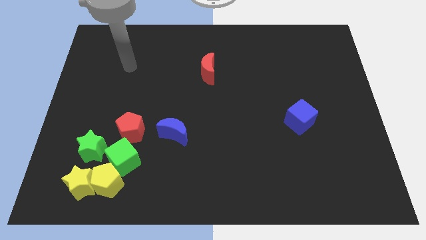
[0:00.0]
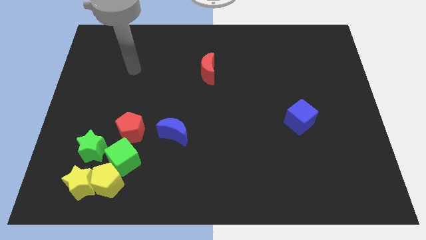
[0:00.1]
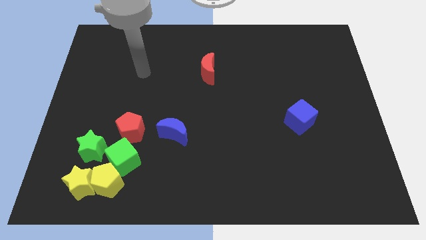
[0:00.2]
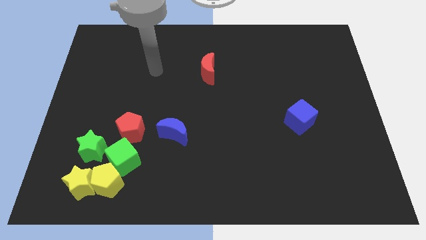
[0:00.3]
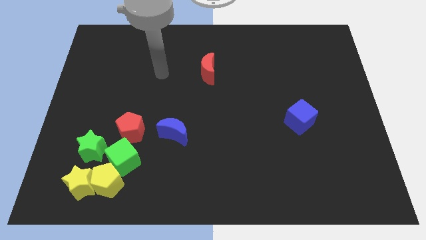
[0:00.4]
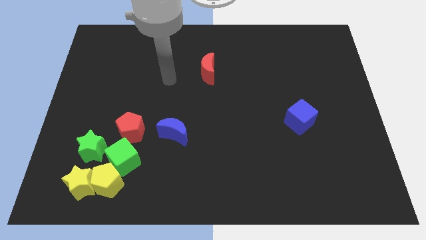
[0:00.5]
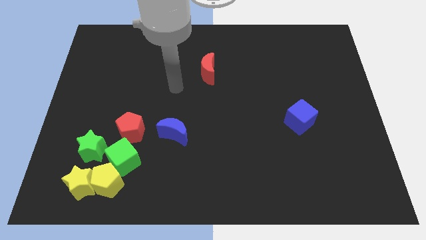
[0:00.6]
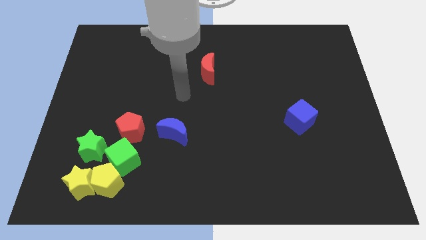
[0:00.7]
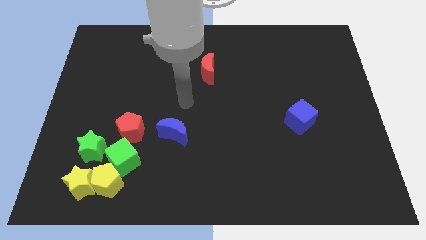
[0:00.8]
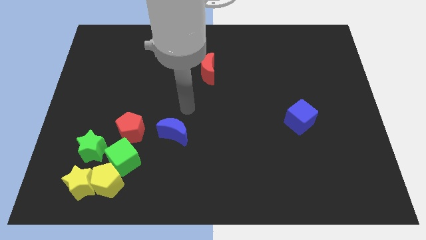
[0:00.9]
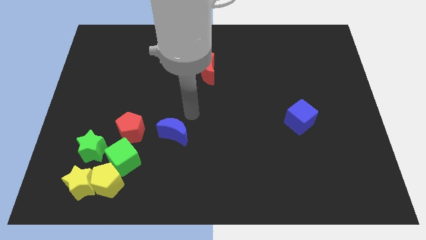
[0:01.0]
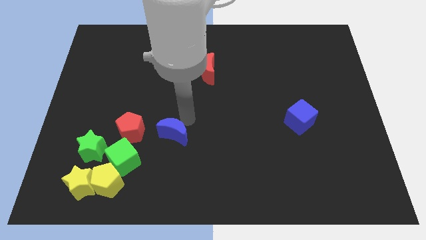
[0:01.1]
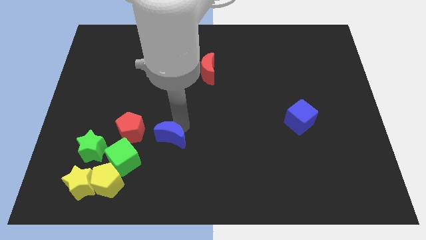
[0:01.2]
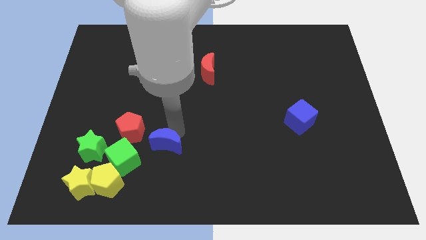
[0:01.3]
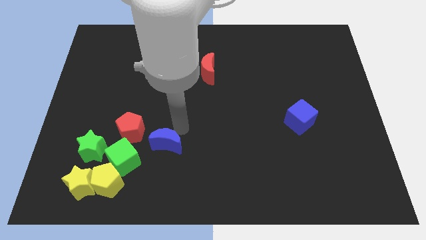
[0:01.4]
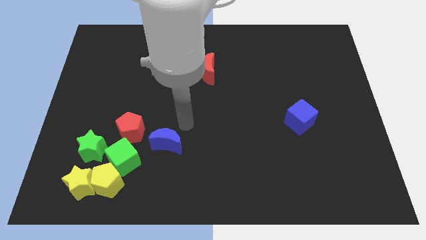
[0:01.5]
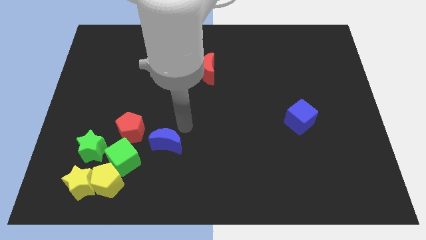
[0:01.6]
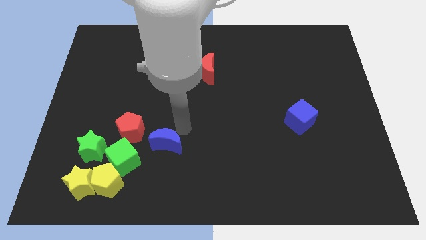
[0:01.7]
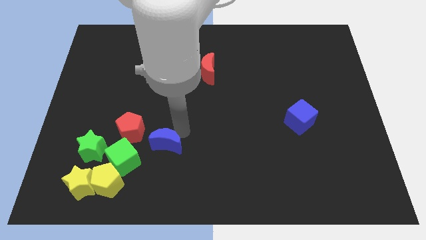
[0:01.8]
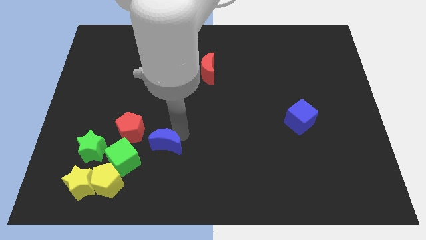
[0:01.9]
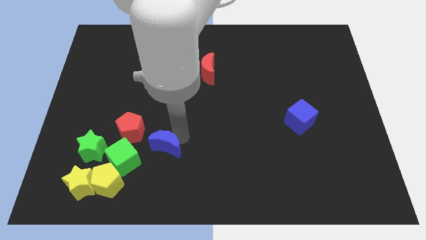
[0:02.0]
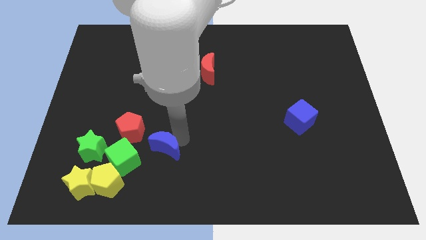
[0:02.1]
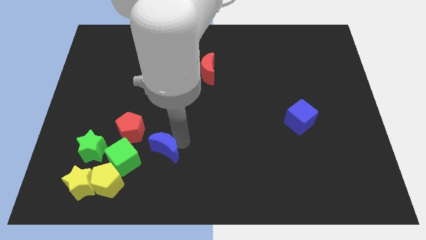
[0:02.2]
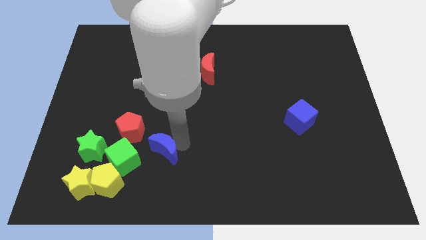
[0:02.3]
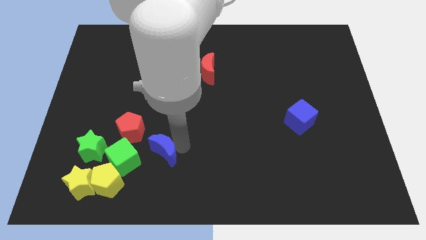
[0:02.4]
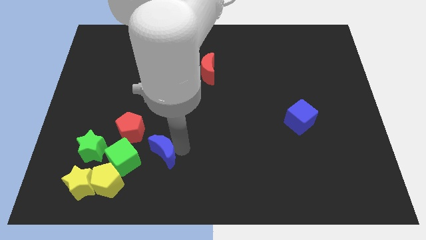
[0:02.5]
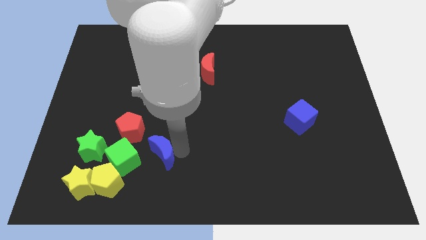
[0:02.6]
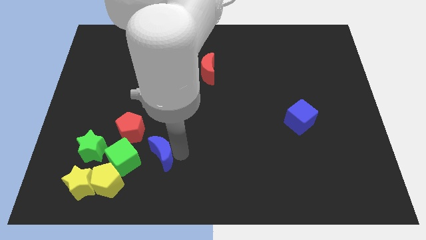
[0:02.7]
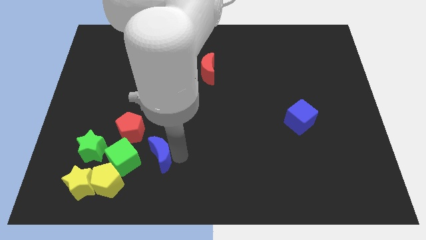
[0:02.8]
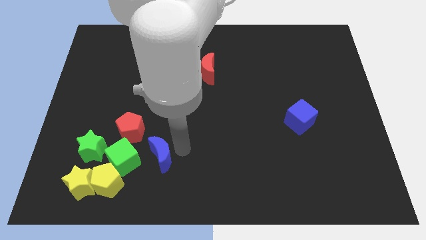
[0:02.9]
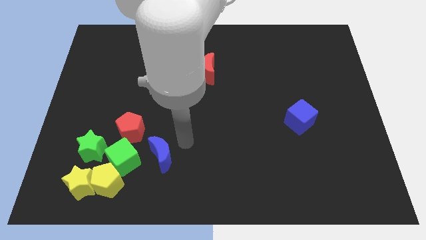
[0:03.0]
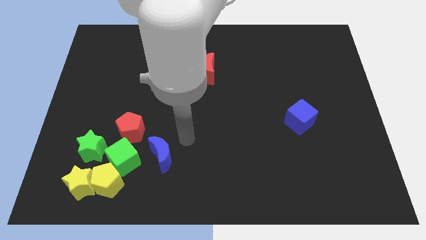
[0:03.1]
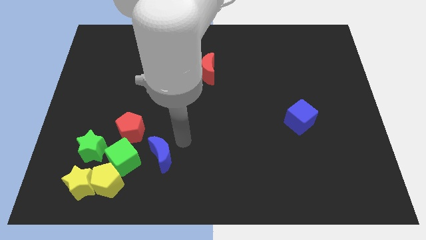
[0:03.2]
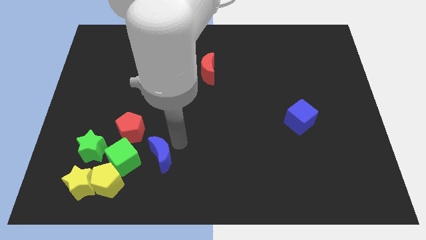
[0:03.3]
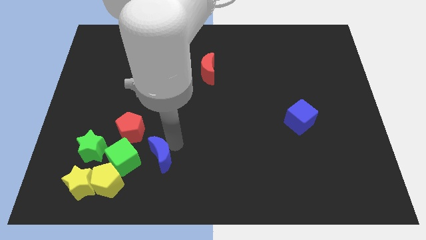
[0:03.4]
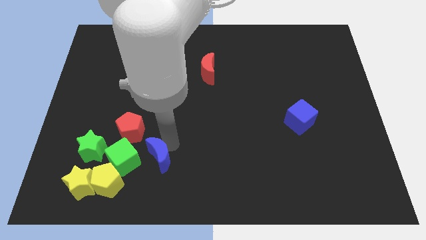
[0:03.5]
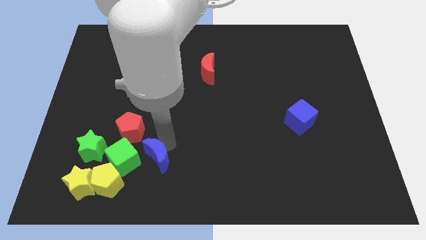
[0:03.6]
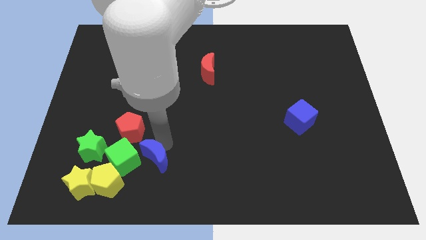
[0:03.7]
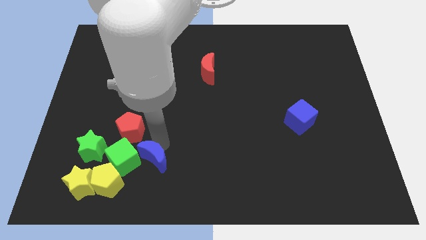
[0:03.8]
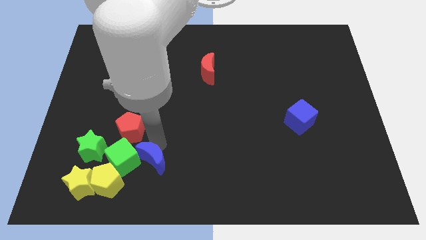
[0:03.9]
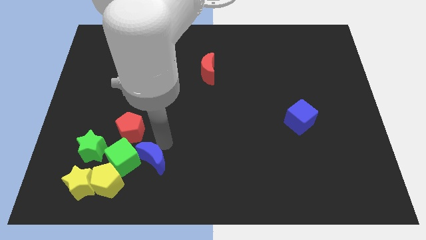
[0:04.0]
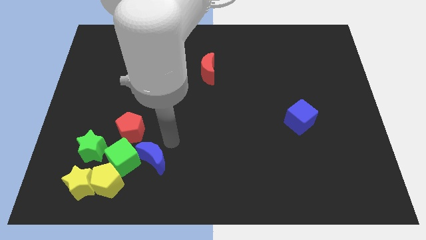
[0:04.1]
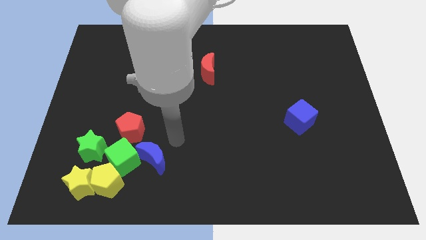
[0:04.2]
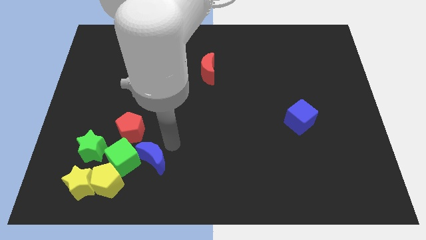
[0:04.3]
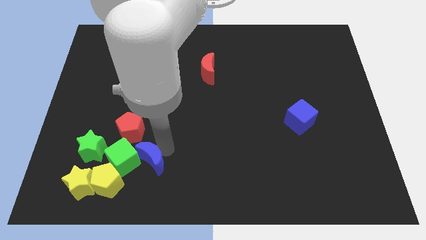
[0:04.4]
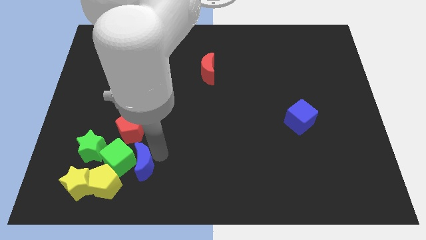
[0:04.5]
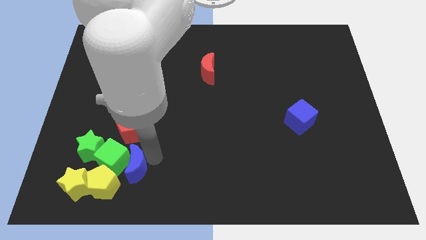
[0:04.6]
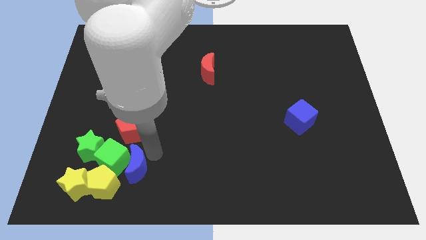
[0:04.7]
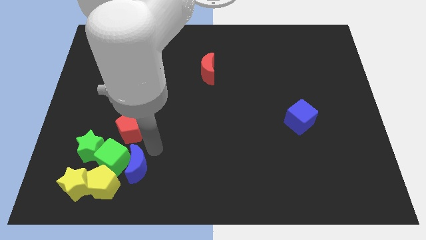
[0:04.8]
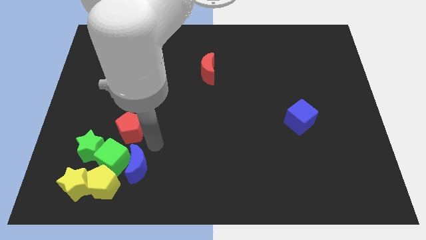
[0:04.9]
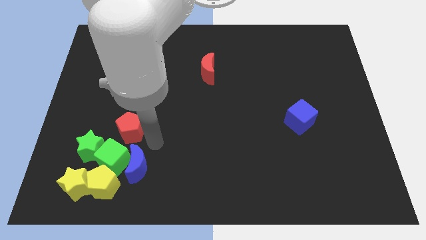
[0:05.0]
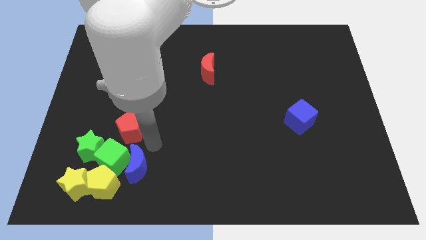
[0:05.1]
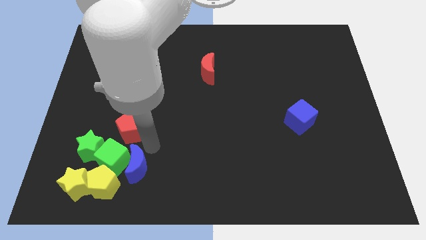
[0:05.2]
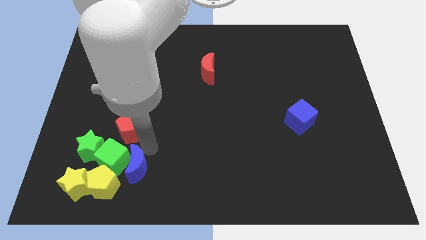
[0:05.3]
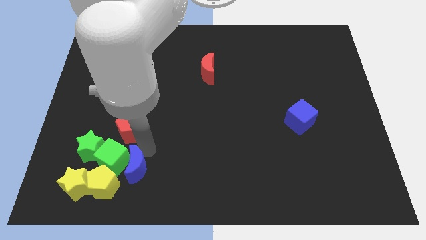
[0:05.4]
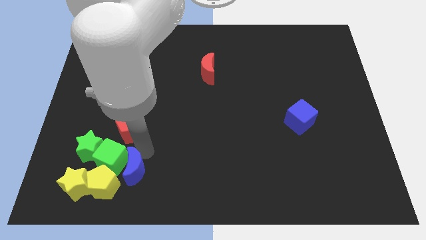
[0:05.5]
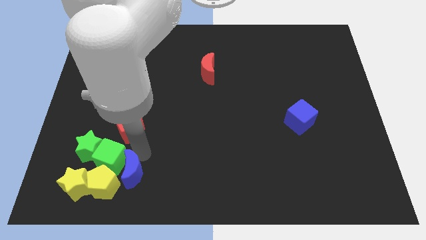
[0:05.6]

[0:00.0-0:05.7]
slide the blue moon to the yellow pentagon
